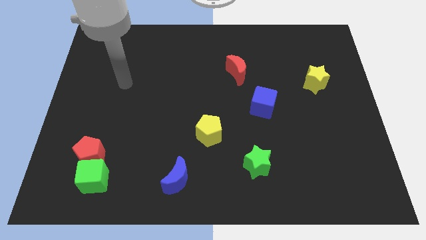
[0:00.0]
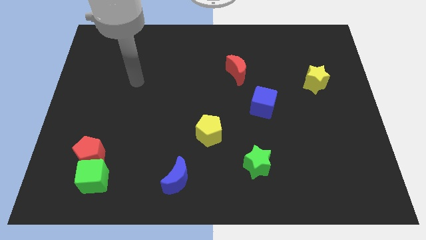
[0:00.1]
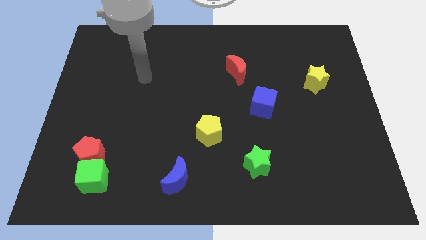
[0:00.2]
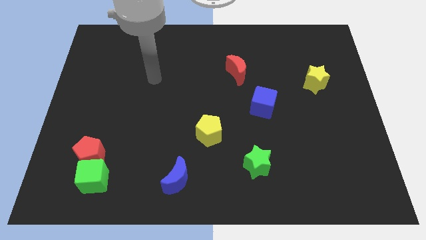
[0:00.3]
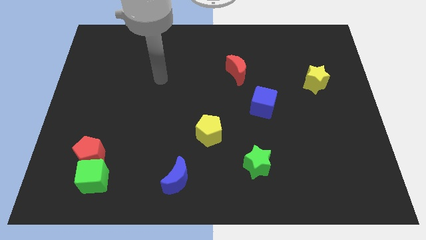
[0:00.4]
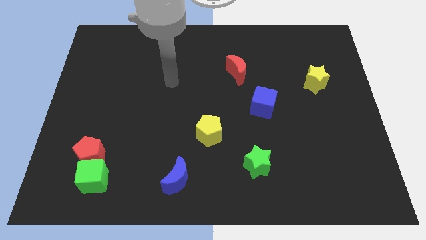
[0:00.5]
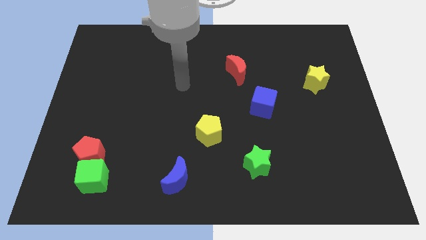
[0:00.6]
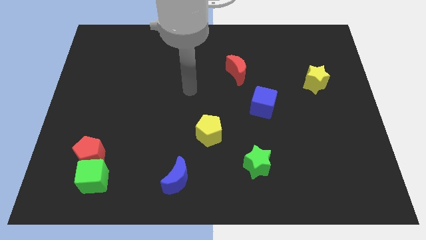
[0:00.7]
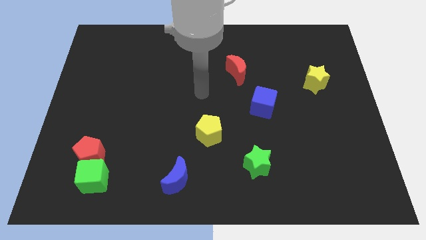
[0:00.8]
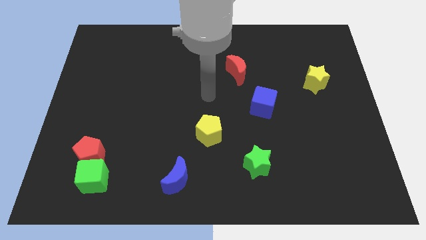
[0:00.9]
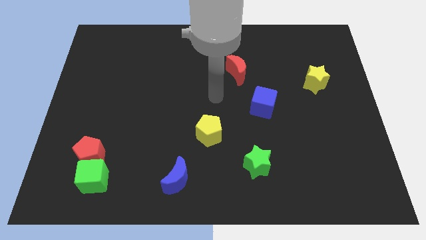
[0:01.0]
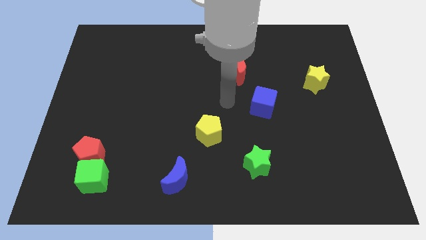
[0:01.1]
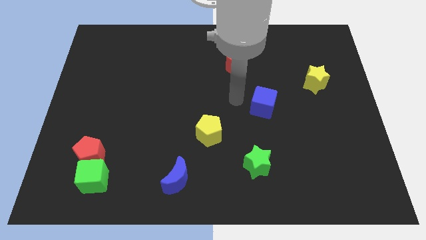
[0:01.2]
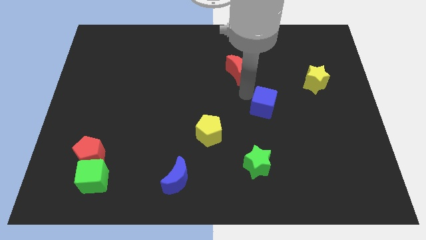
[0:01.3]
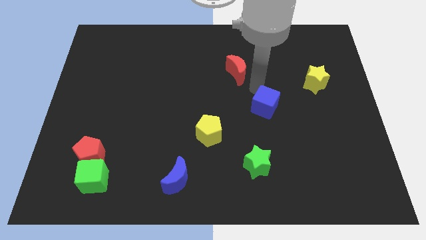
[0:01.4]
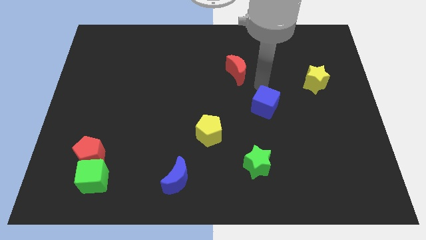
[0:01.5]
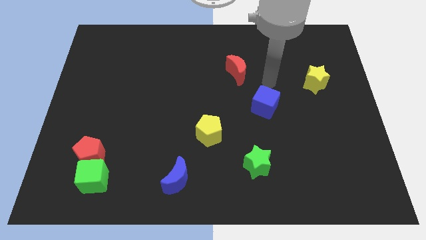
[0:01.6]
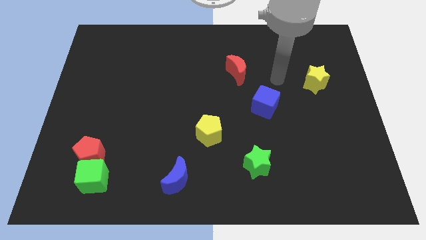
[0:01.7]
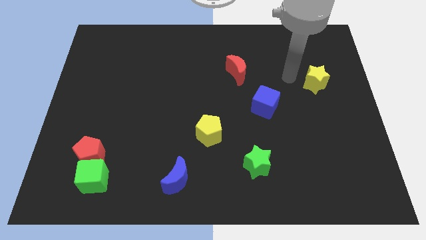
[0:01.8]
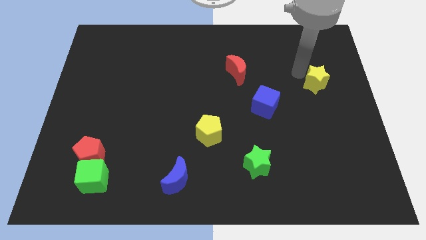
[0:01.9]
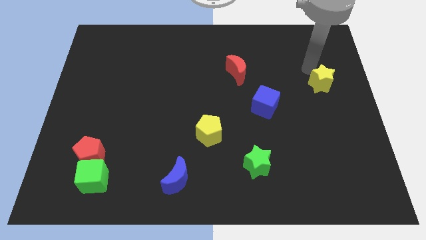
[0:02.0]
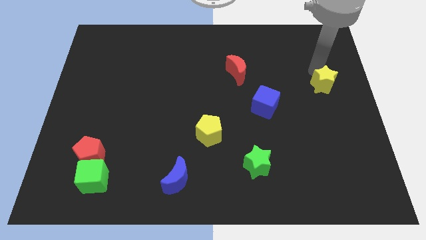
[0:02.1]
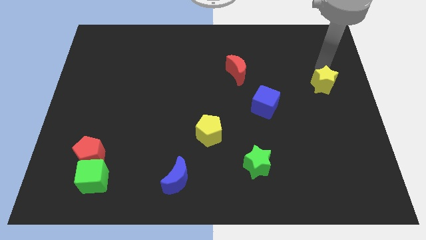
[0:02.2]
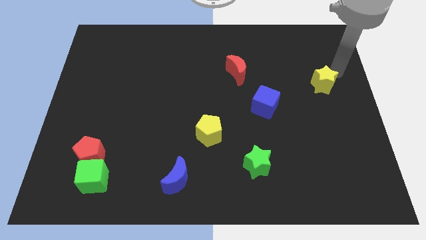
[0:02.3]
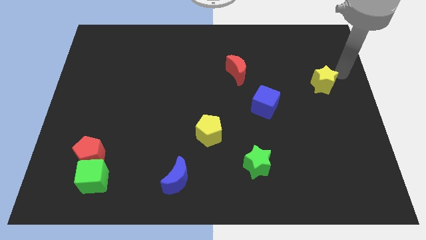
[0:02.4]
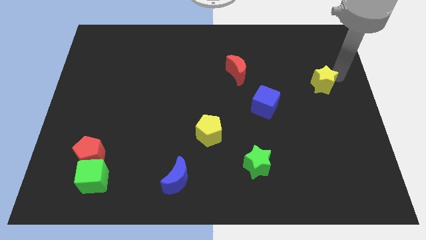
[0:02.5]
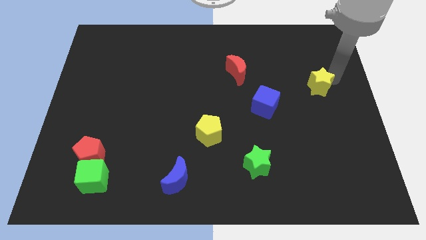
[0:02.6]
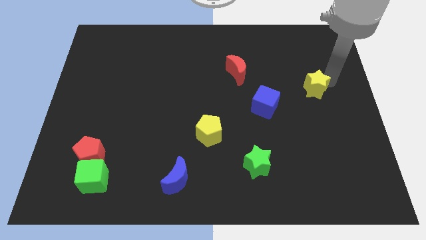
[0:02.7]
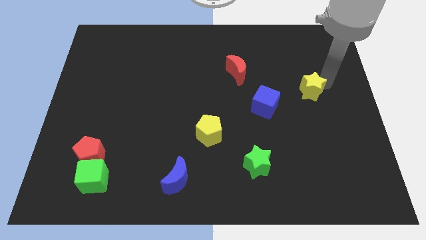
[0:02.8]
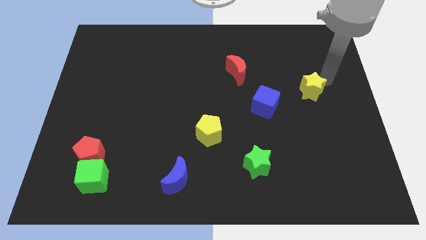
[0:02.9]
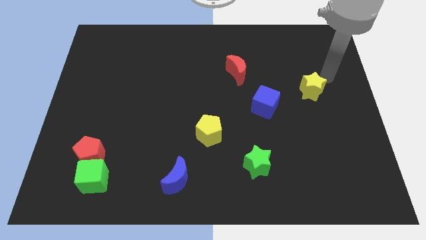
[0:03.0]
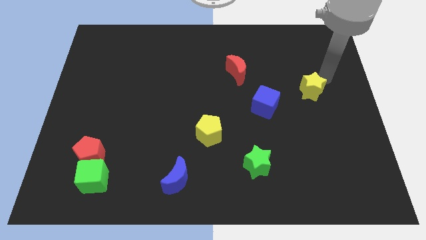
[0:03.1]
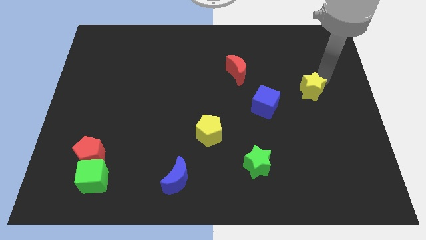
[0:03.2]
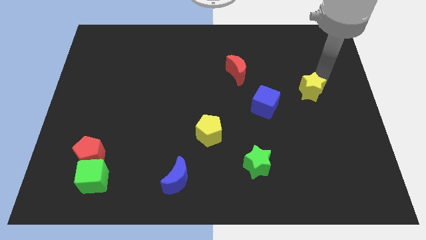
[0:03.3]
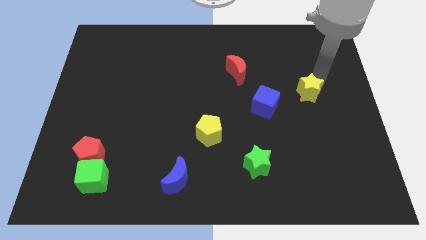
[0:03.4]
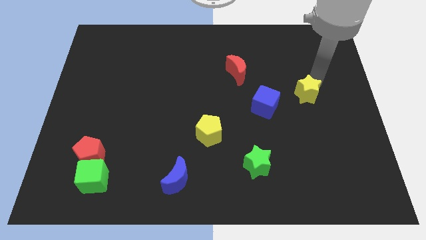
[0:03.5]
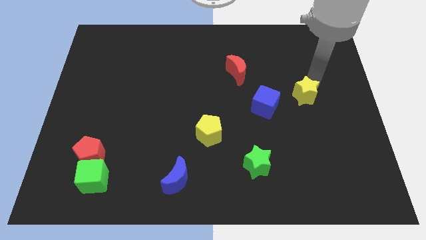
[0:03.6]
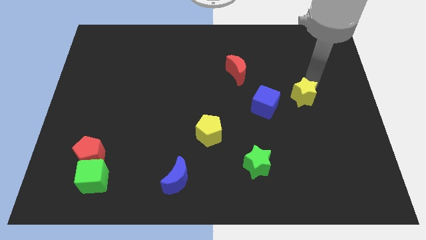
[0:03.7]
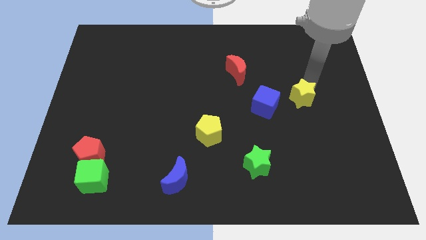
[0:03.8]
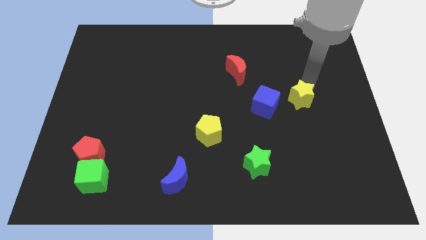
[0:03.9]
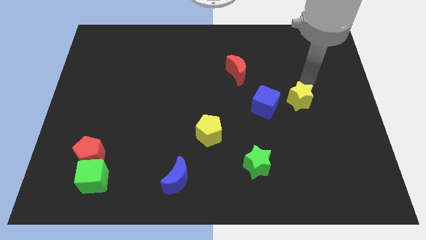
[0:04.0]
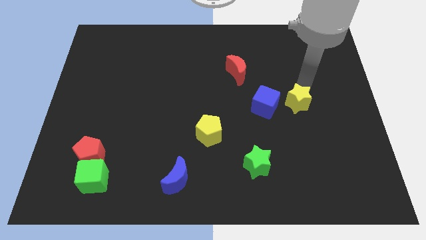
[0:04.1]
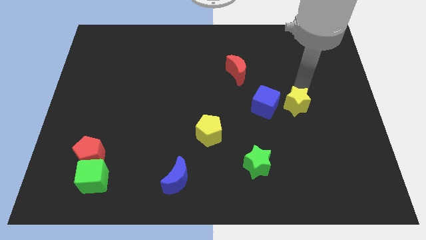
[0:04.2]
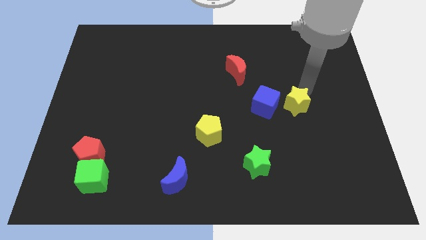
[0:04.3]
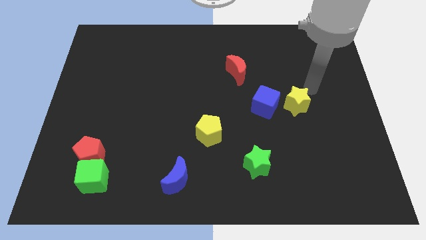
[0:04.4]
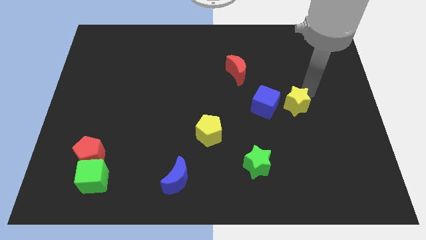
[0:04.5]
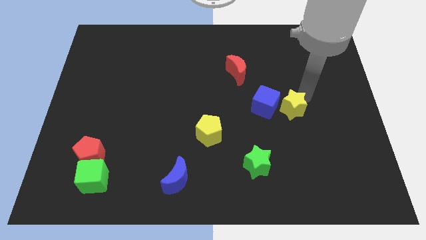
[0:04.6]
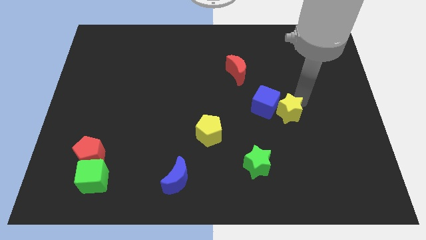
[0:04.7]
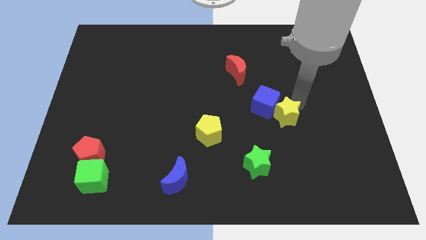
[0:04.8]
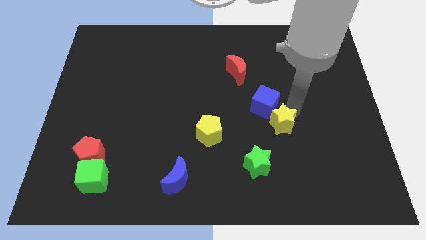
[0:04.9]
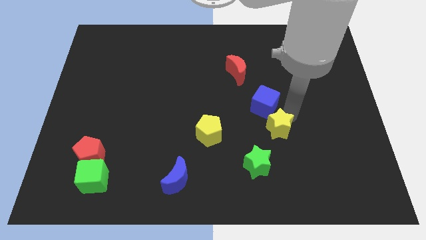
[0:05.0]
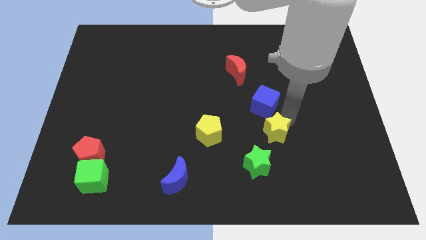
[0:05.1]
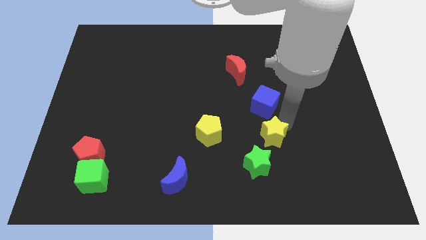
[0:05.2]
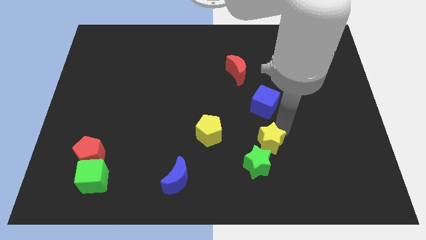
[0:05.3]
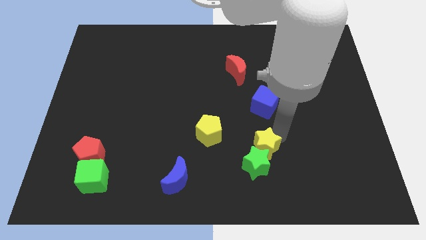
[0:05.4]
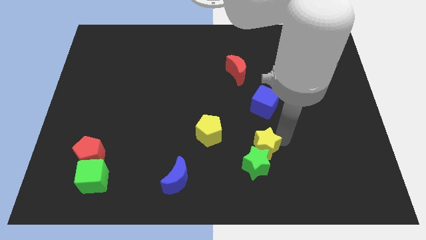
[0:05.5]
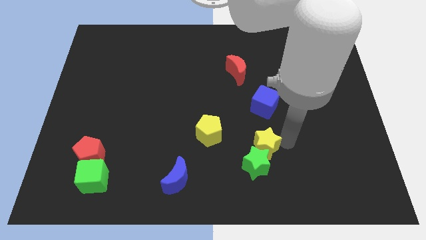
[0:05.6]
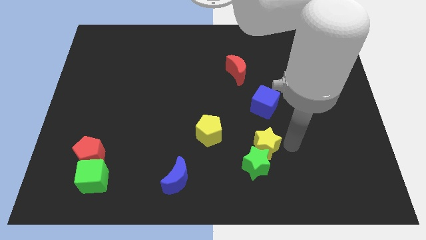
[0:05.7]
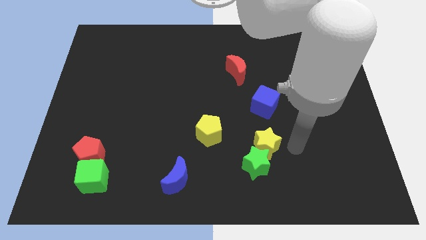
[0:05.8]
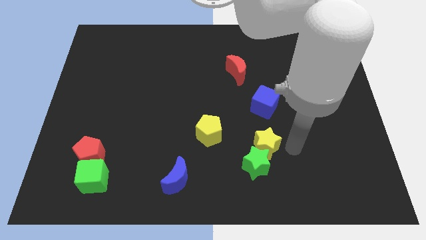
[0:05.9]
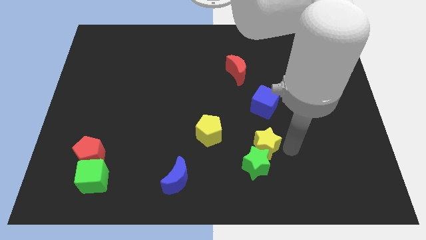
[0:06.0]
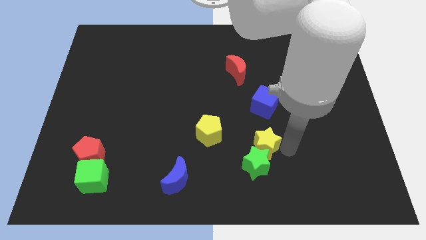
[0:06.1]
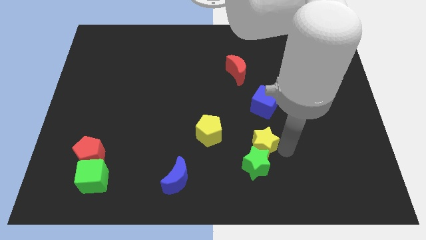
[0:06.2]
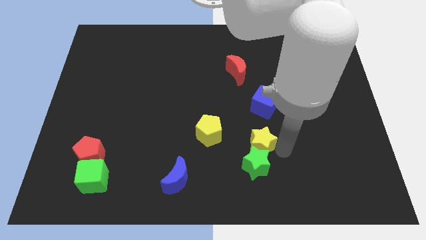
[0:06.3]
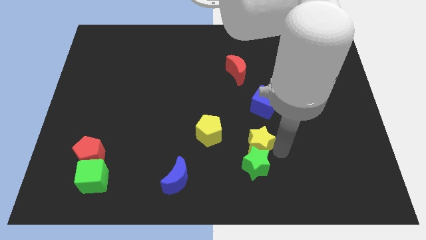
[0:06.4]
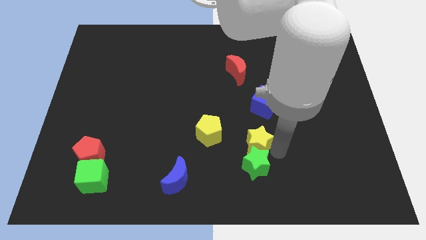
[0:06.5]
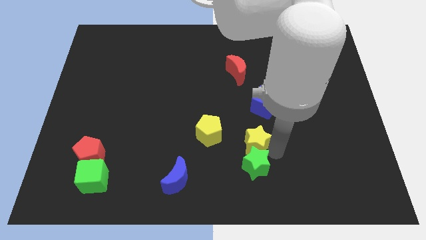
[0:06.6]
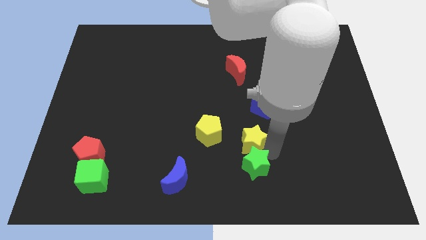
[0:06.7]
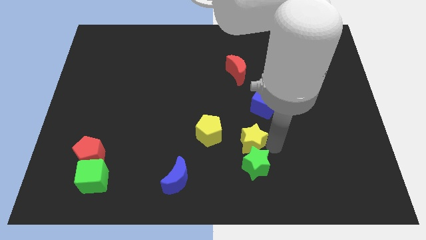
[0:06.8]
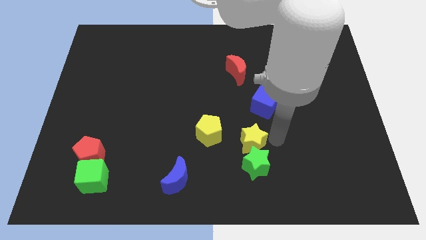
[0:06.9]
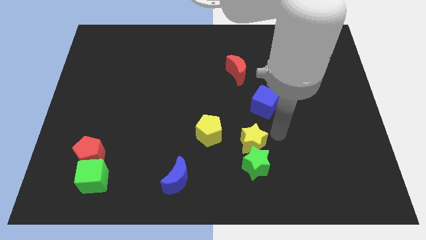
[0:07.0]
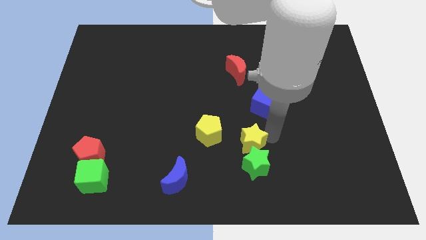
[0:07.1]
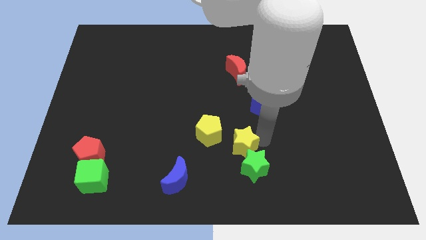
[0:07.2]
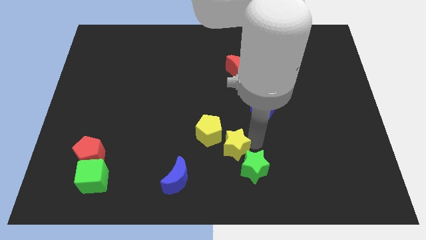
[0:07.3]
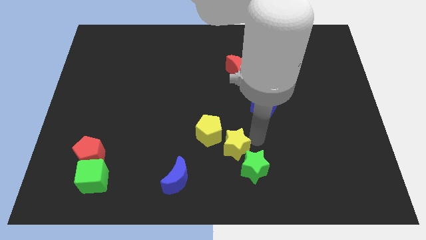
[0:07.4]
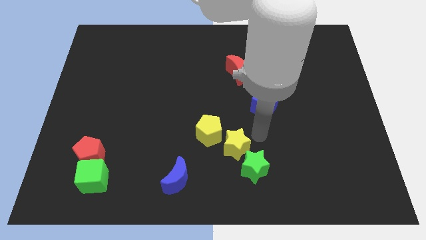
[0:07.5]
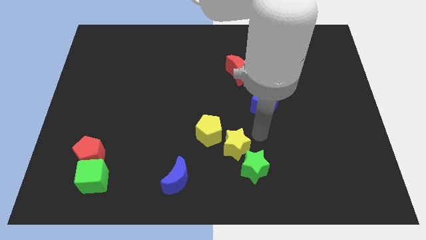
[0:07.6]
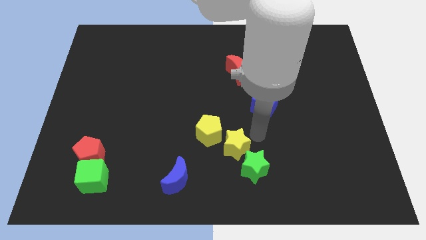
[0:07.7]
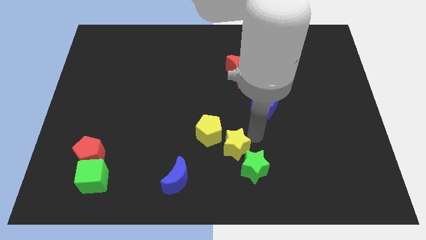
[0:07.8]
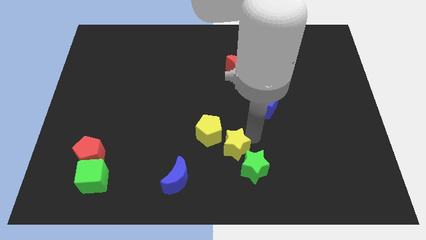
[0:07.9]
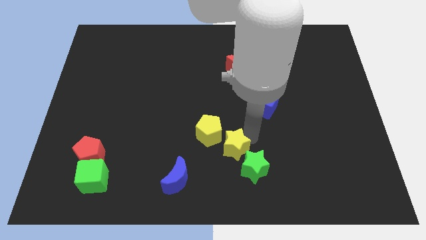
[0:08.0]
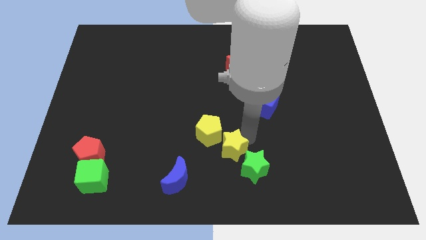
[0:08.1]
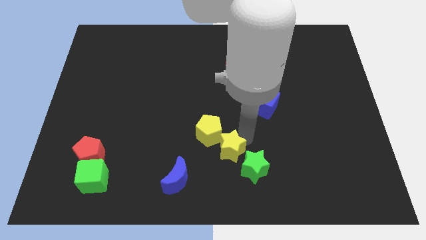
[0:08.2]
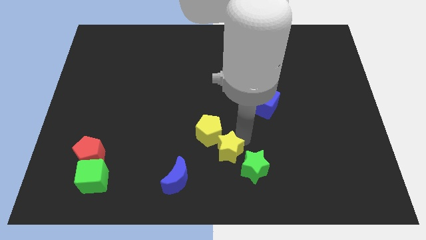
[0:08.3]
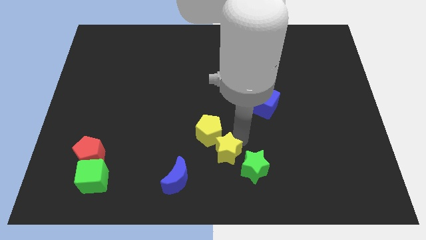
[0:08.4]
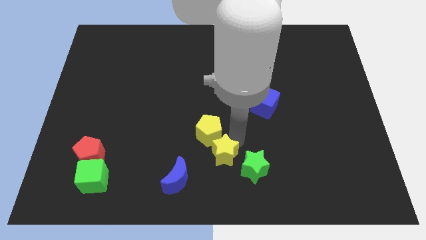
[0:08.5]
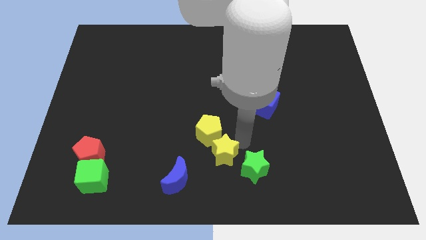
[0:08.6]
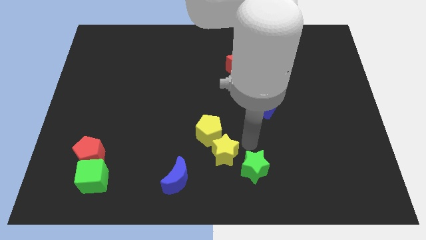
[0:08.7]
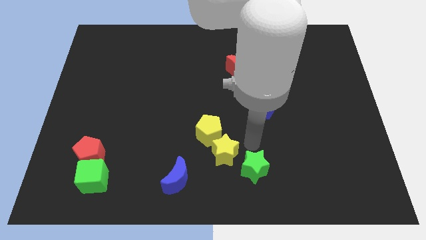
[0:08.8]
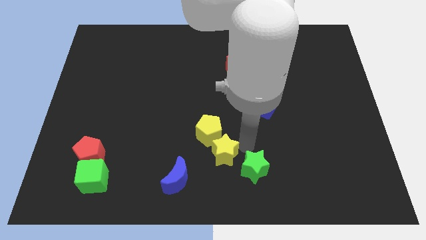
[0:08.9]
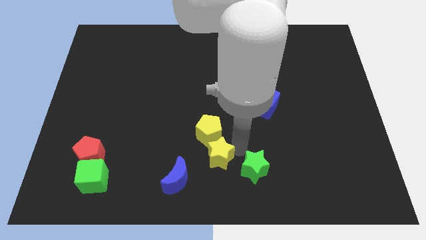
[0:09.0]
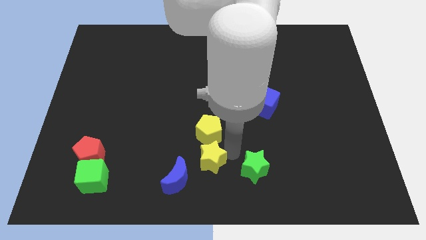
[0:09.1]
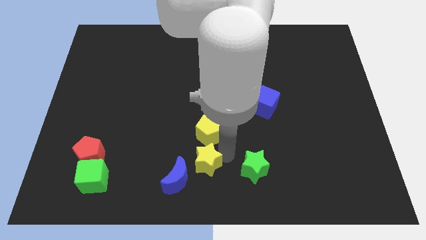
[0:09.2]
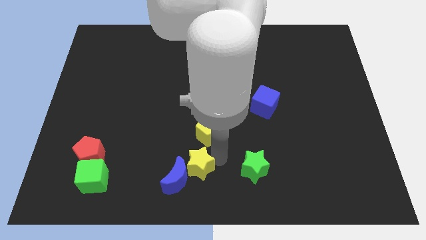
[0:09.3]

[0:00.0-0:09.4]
slide the yellow star next to the blue moon
